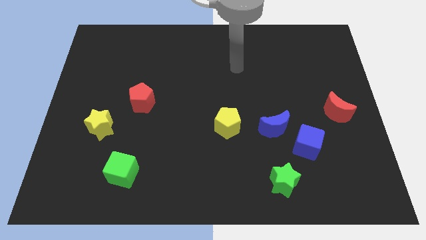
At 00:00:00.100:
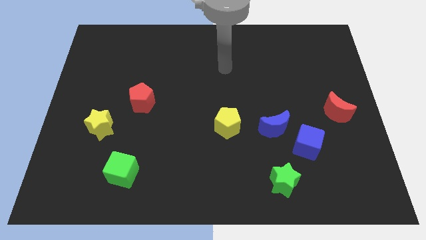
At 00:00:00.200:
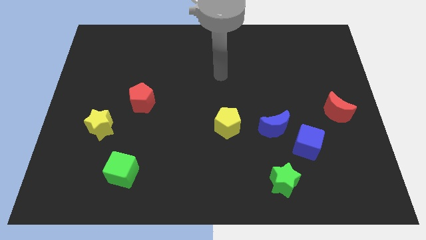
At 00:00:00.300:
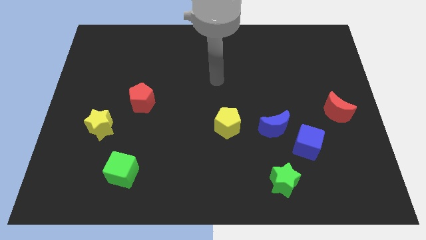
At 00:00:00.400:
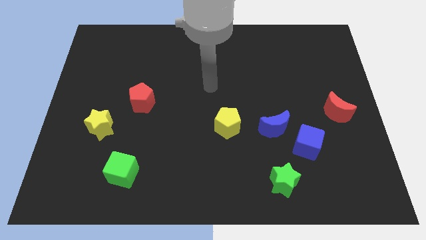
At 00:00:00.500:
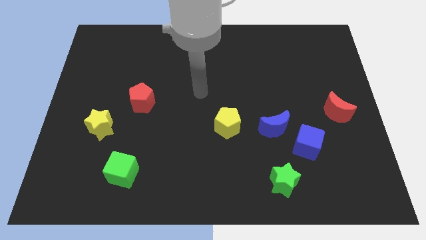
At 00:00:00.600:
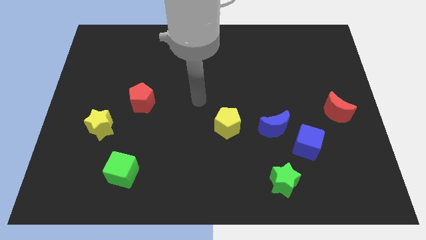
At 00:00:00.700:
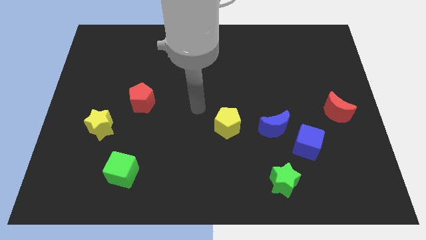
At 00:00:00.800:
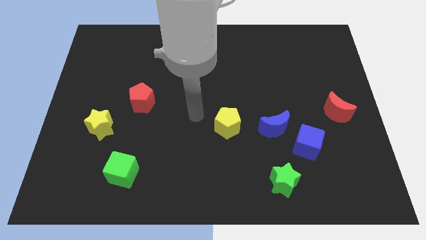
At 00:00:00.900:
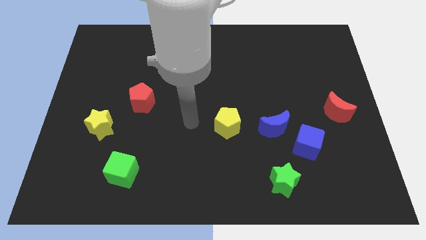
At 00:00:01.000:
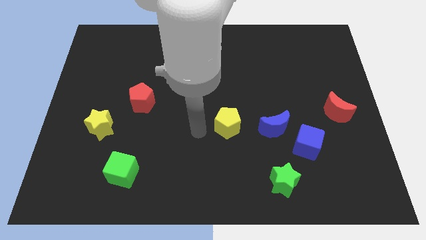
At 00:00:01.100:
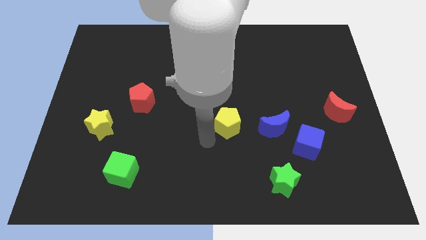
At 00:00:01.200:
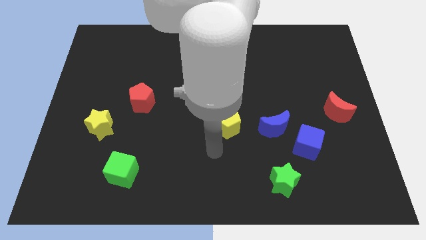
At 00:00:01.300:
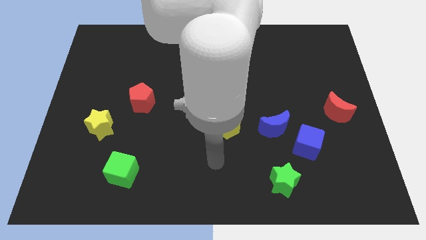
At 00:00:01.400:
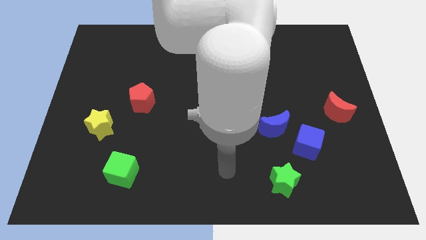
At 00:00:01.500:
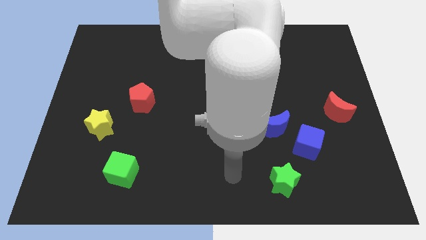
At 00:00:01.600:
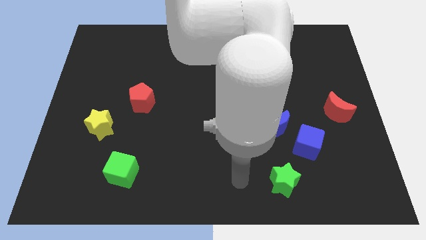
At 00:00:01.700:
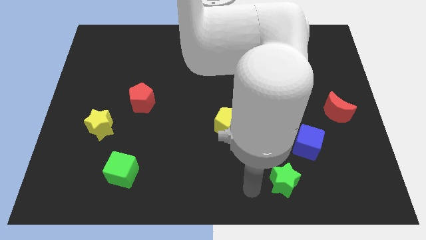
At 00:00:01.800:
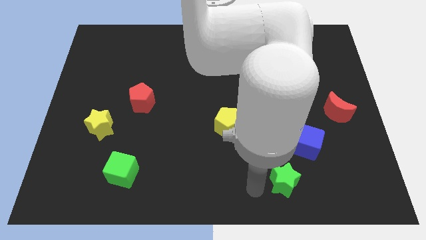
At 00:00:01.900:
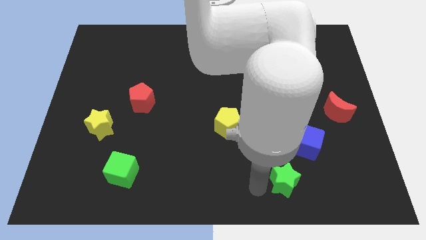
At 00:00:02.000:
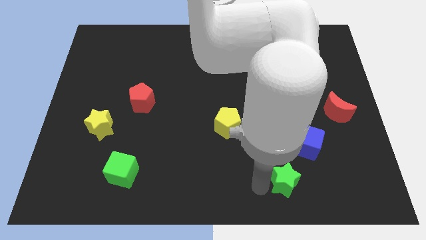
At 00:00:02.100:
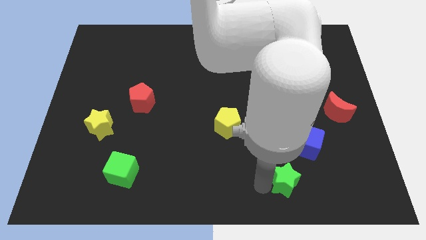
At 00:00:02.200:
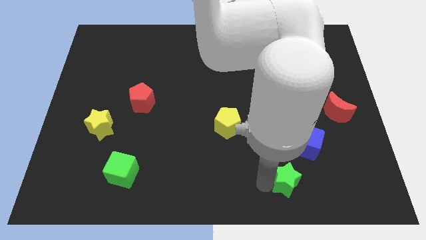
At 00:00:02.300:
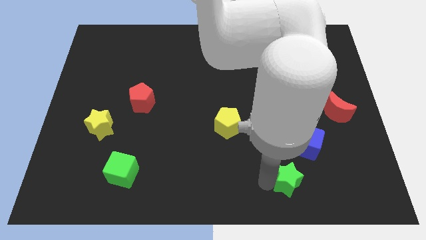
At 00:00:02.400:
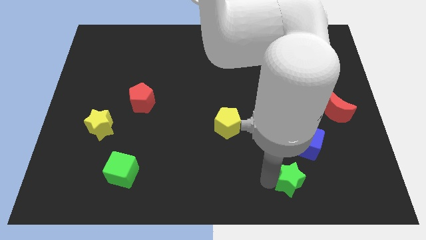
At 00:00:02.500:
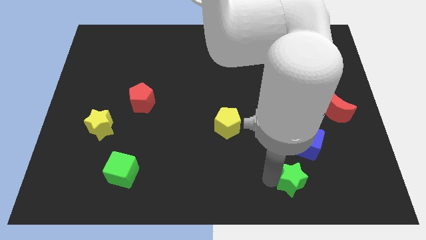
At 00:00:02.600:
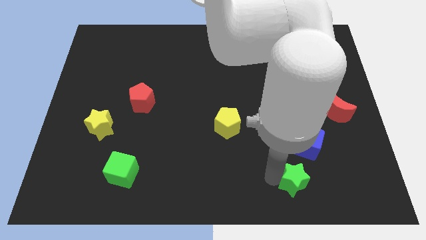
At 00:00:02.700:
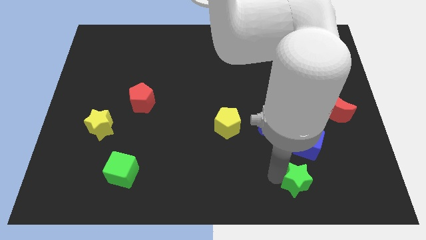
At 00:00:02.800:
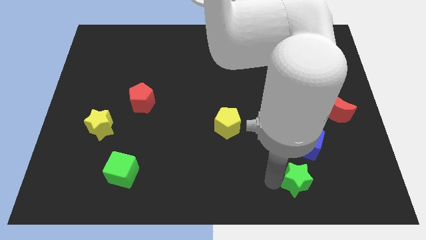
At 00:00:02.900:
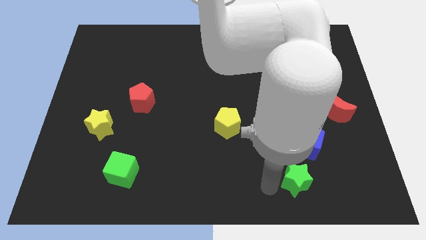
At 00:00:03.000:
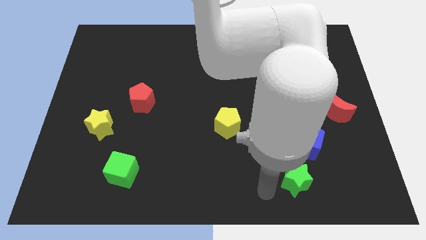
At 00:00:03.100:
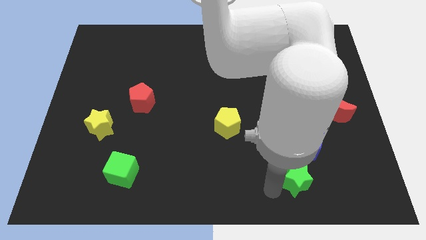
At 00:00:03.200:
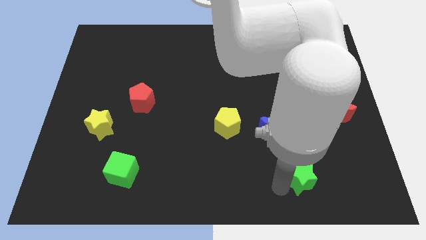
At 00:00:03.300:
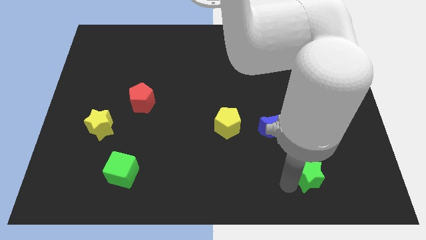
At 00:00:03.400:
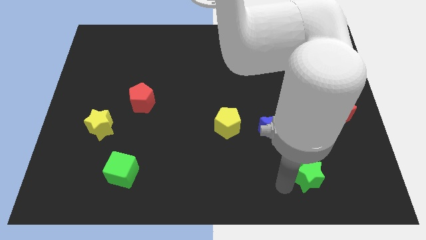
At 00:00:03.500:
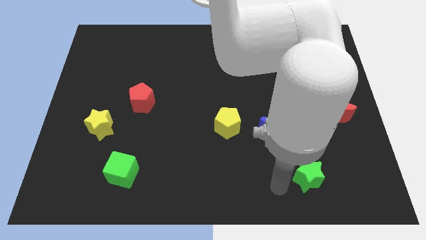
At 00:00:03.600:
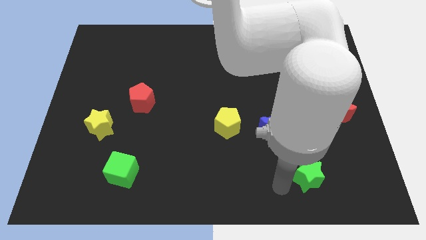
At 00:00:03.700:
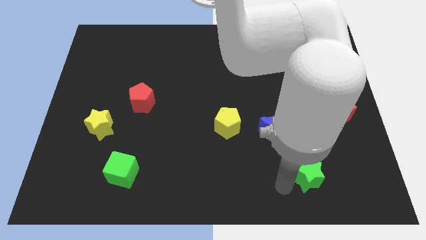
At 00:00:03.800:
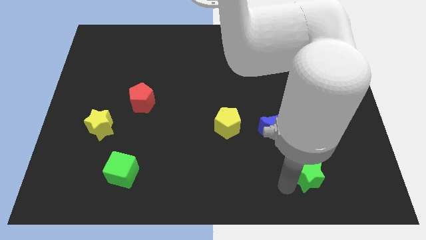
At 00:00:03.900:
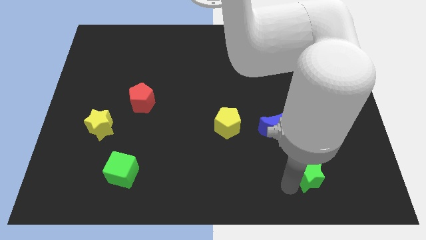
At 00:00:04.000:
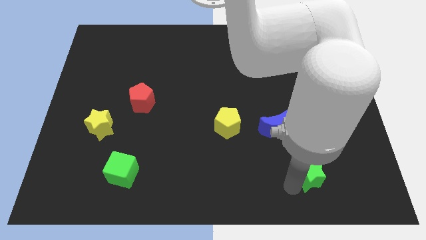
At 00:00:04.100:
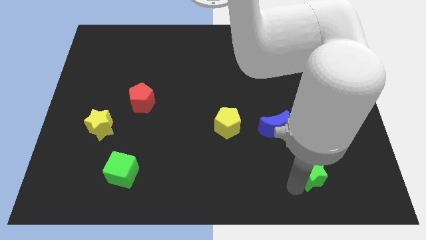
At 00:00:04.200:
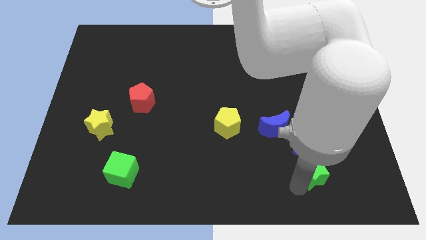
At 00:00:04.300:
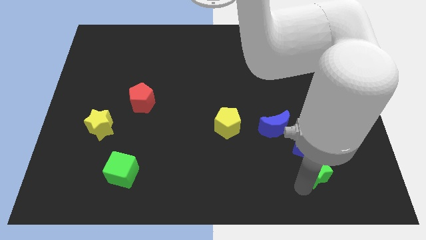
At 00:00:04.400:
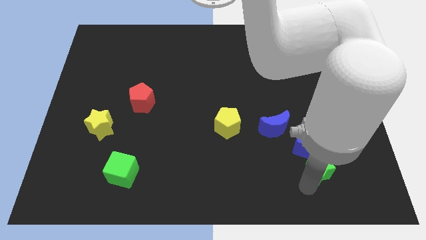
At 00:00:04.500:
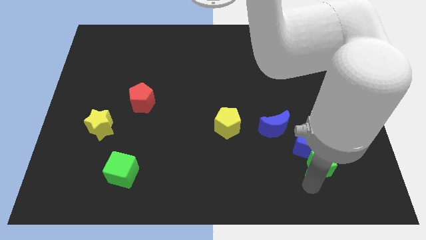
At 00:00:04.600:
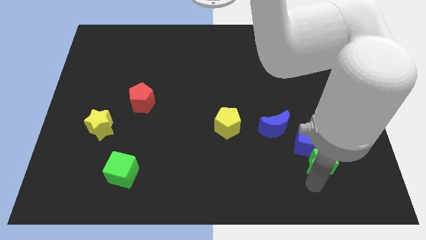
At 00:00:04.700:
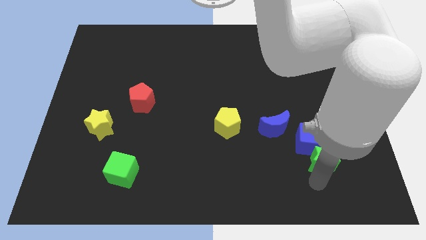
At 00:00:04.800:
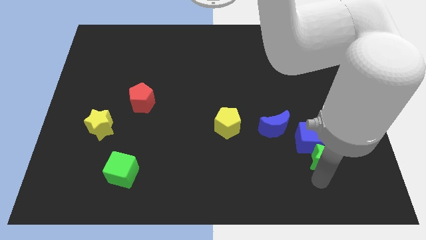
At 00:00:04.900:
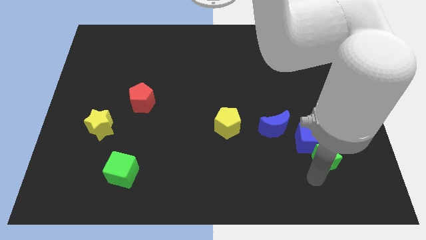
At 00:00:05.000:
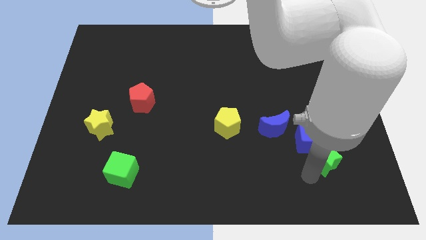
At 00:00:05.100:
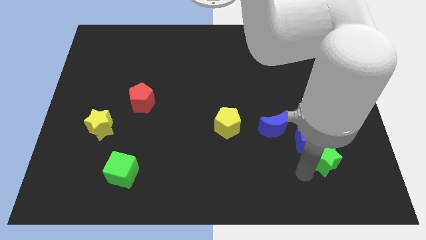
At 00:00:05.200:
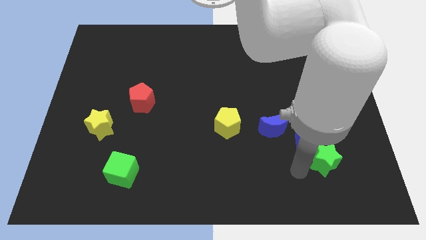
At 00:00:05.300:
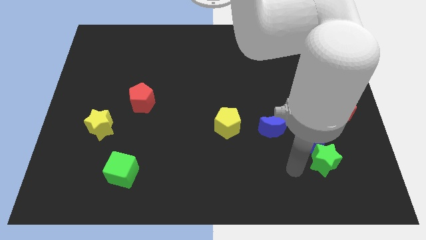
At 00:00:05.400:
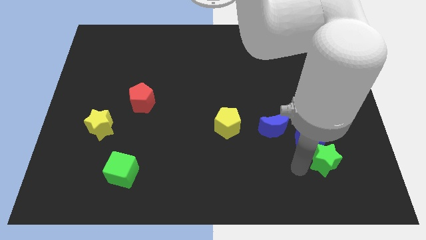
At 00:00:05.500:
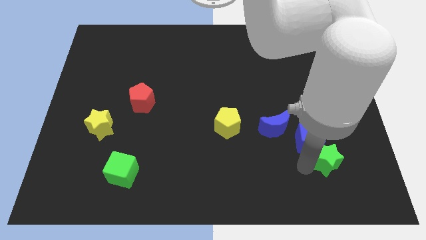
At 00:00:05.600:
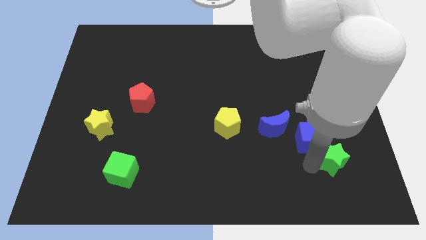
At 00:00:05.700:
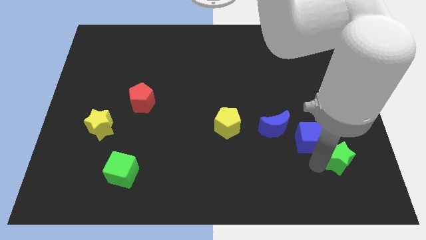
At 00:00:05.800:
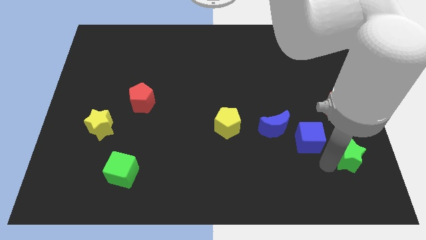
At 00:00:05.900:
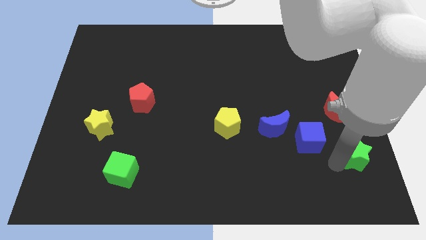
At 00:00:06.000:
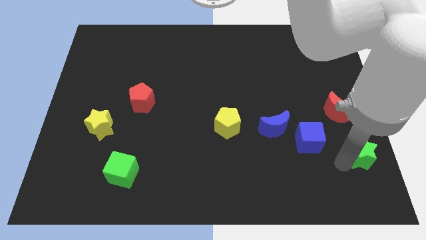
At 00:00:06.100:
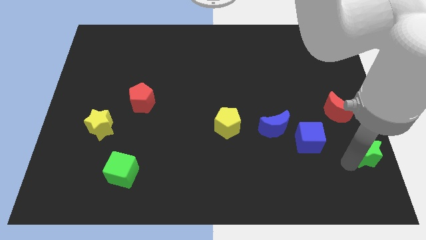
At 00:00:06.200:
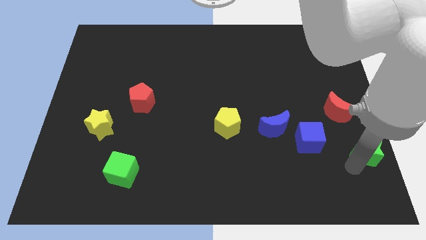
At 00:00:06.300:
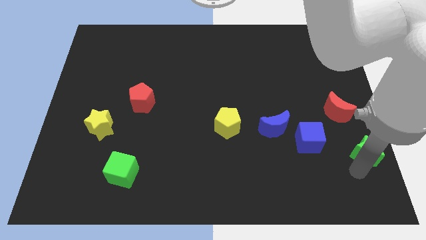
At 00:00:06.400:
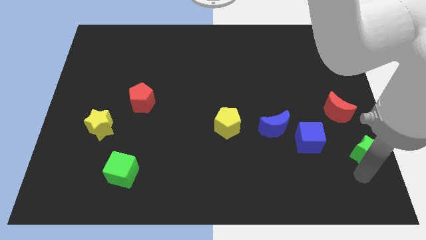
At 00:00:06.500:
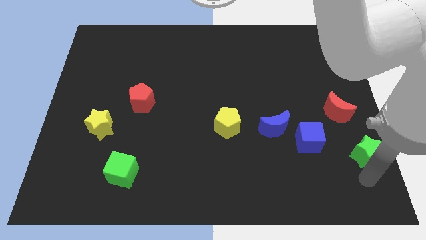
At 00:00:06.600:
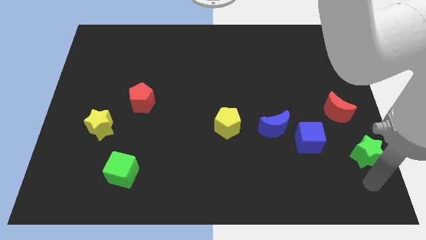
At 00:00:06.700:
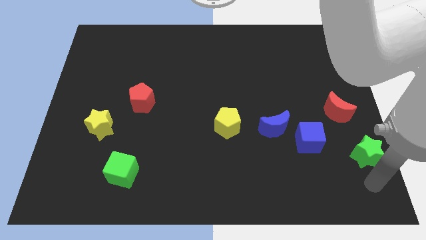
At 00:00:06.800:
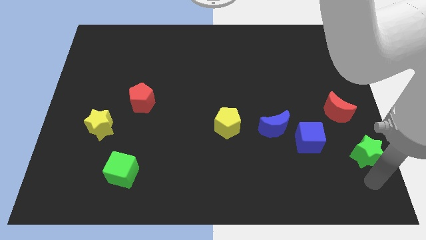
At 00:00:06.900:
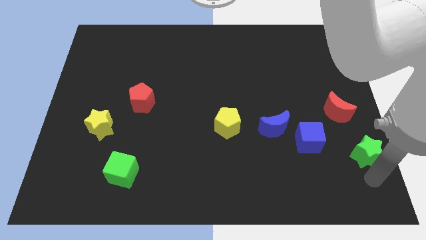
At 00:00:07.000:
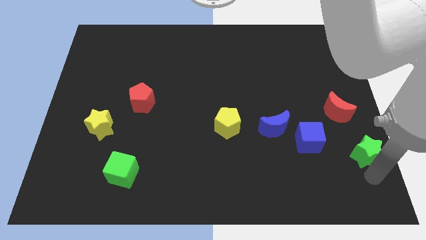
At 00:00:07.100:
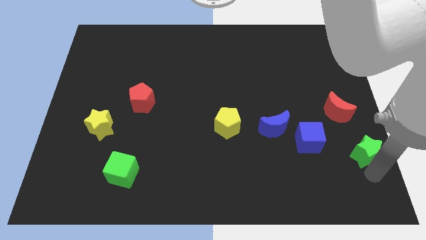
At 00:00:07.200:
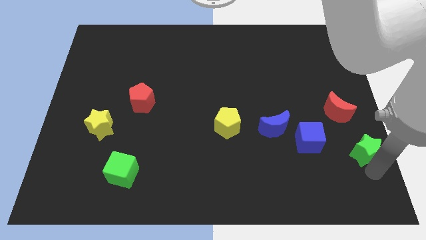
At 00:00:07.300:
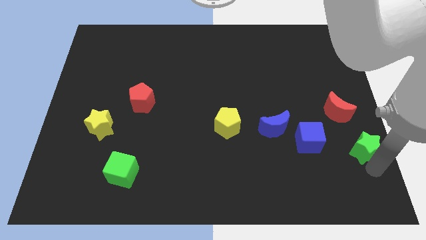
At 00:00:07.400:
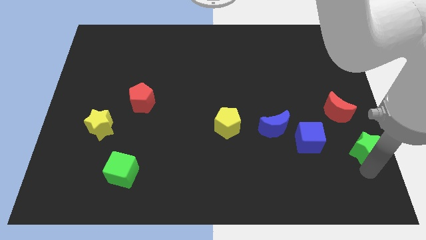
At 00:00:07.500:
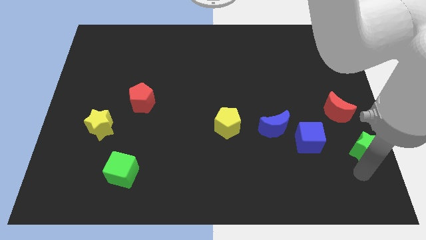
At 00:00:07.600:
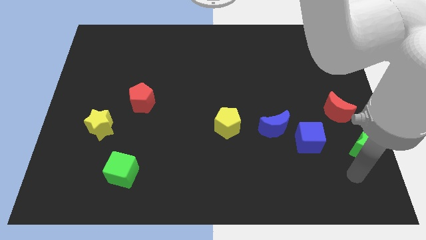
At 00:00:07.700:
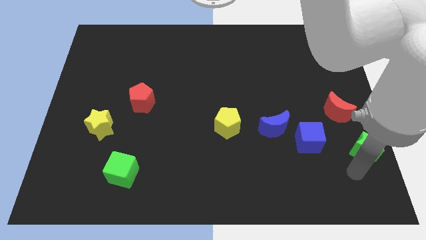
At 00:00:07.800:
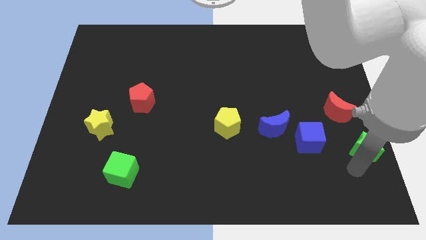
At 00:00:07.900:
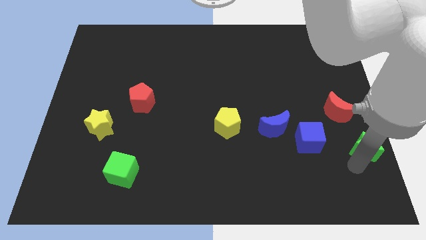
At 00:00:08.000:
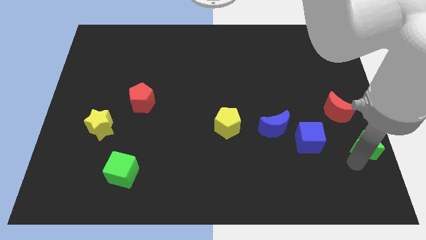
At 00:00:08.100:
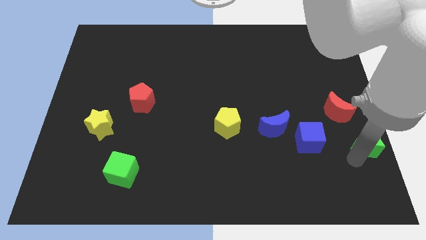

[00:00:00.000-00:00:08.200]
push the green star to the right side of the board
